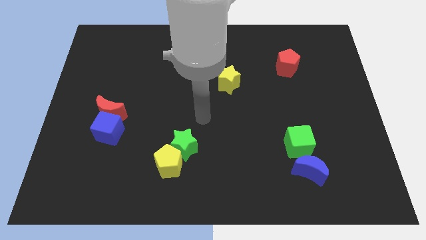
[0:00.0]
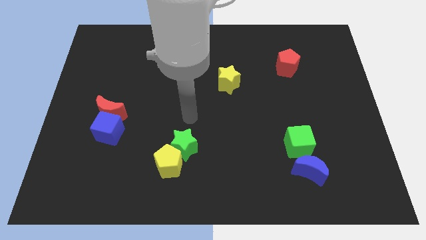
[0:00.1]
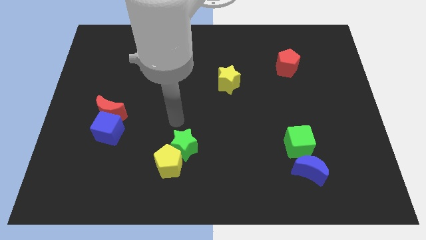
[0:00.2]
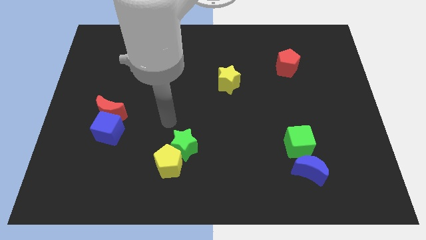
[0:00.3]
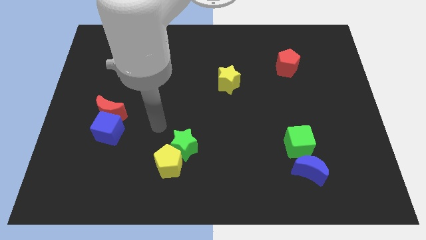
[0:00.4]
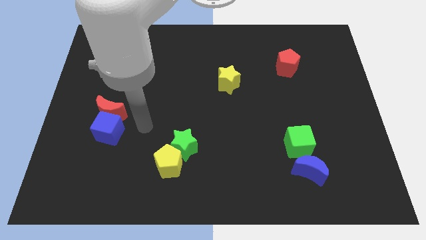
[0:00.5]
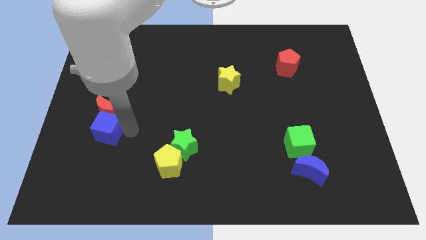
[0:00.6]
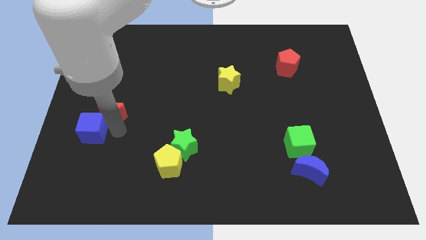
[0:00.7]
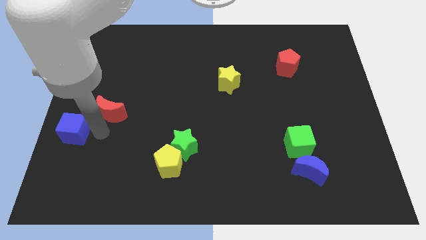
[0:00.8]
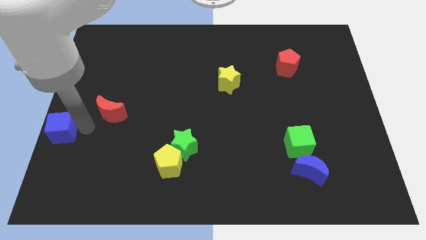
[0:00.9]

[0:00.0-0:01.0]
move the red moon away from the blue cube

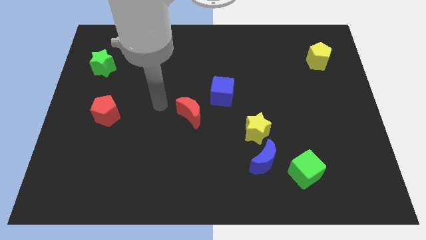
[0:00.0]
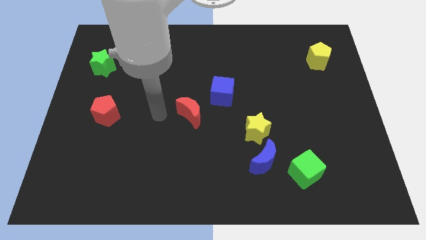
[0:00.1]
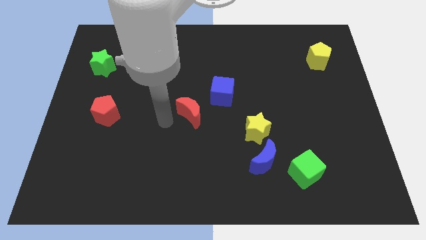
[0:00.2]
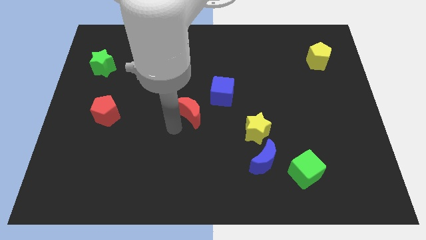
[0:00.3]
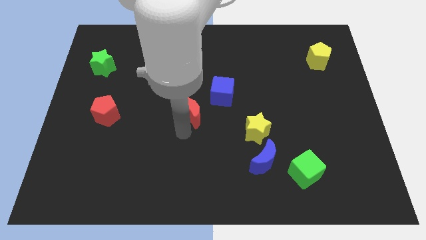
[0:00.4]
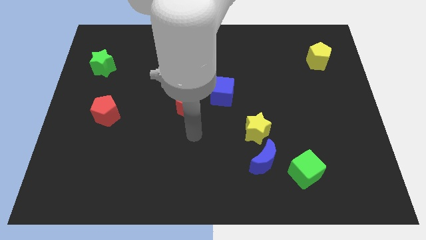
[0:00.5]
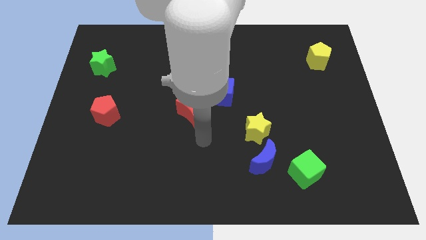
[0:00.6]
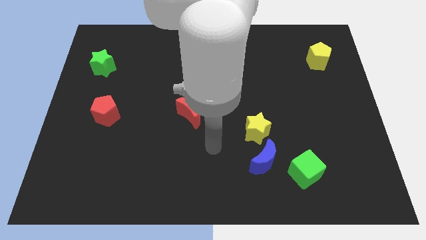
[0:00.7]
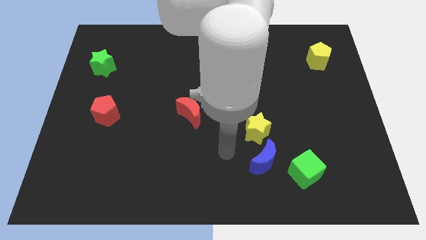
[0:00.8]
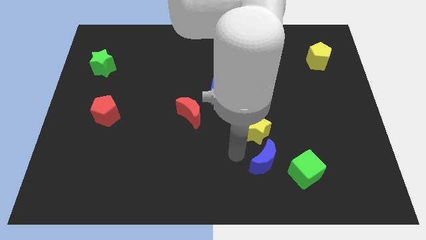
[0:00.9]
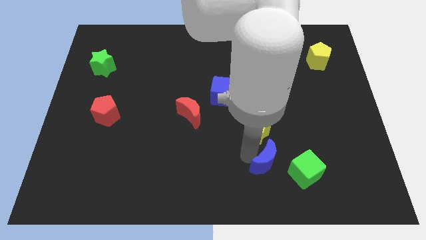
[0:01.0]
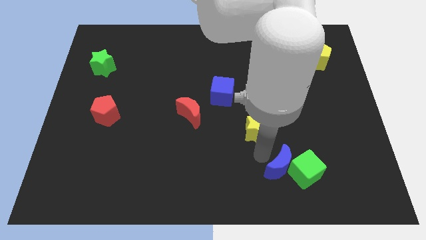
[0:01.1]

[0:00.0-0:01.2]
separate the yellow star from the blue moon

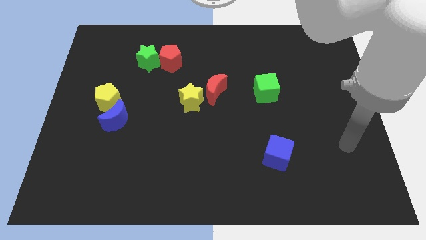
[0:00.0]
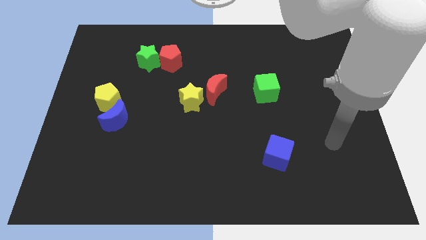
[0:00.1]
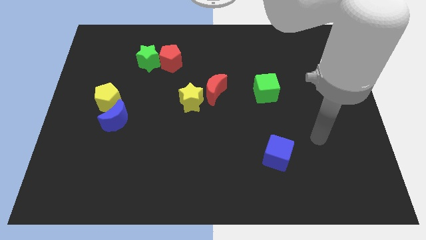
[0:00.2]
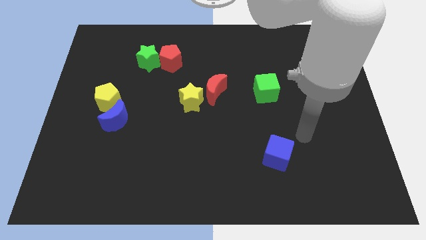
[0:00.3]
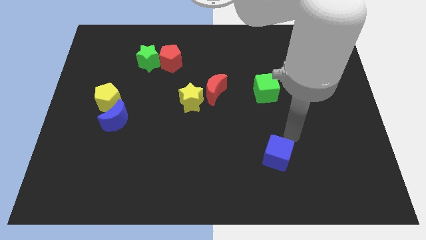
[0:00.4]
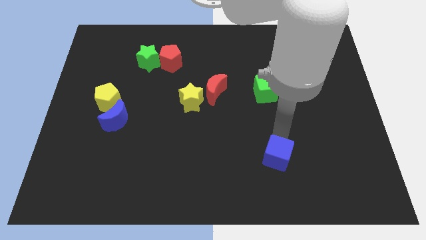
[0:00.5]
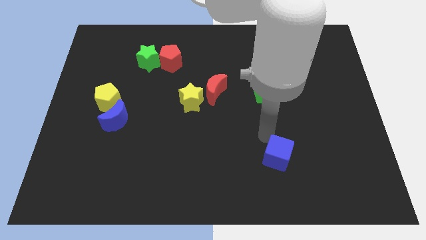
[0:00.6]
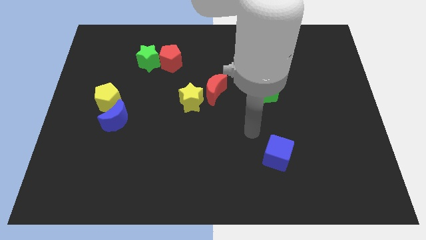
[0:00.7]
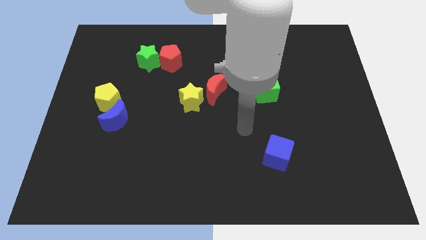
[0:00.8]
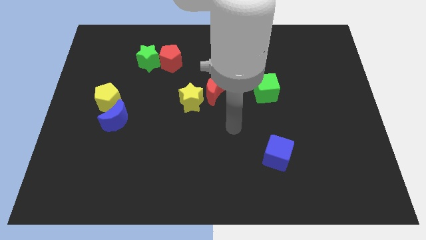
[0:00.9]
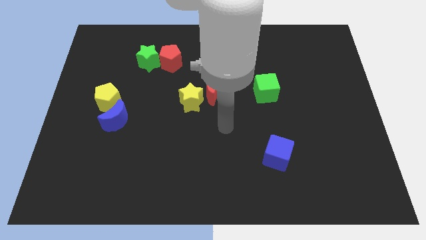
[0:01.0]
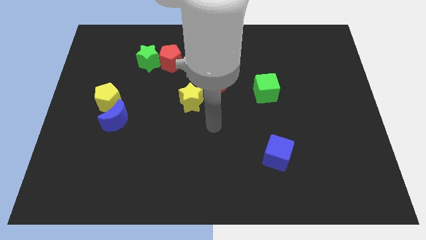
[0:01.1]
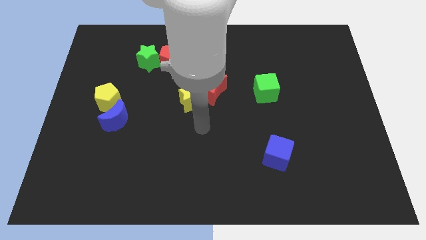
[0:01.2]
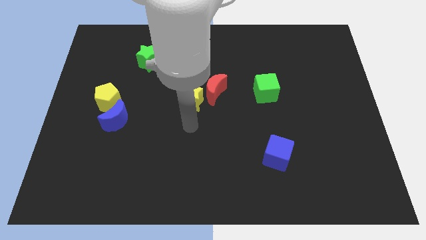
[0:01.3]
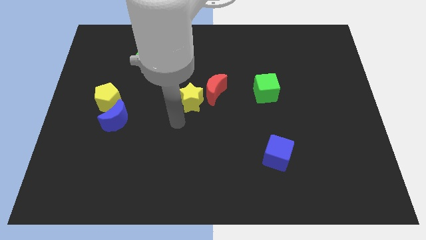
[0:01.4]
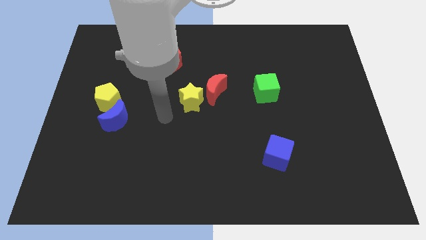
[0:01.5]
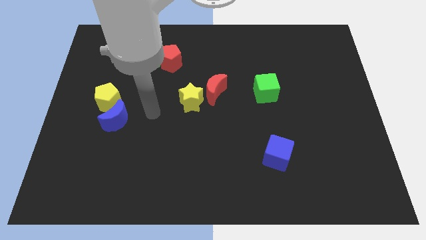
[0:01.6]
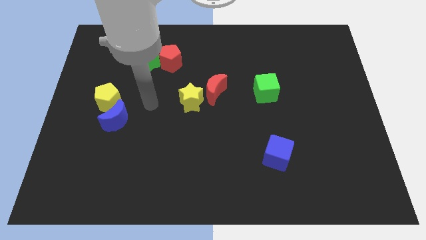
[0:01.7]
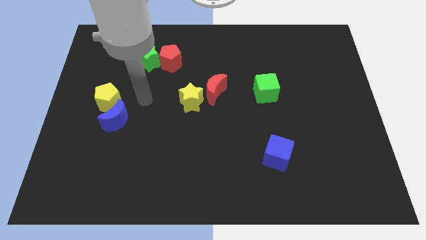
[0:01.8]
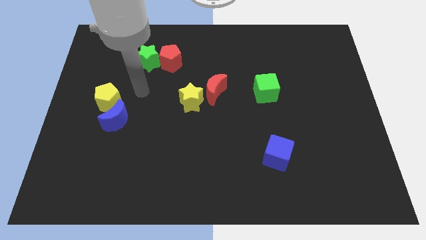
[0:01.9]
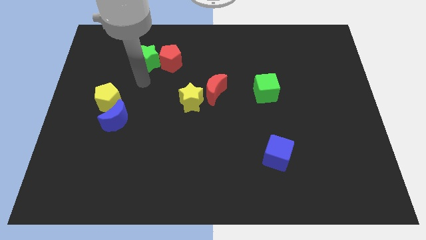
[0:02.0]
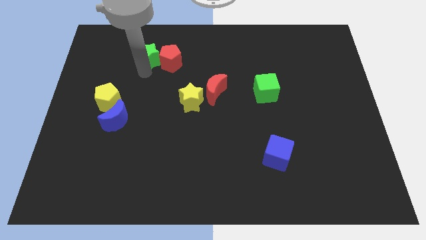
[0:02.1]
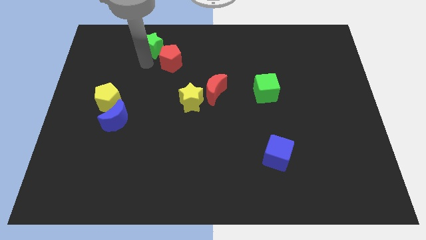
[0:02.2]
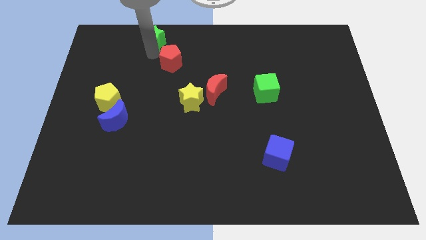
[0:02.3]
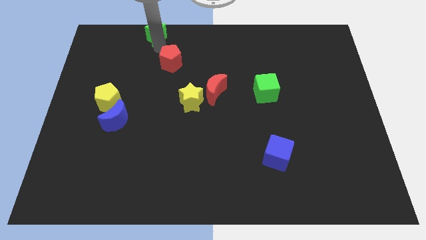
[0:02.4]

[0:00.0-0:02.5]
pull the red pentagon apart from the green star

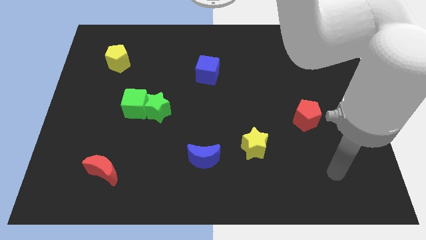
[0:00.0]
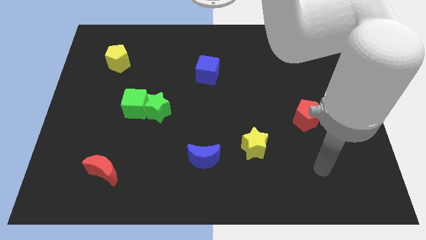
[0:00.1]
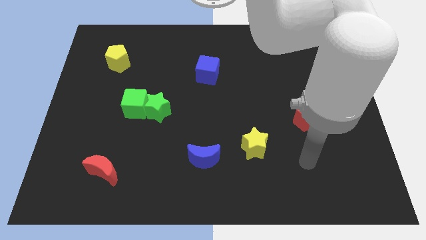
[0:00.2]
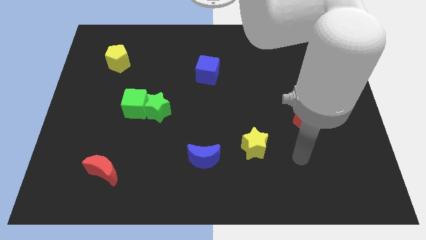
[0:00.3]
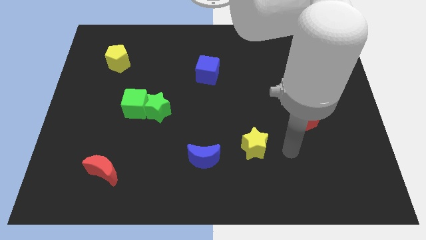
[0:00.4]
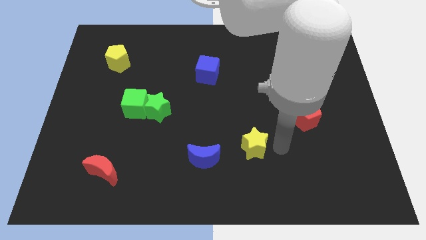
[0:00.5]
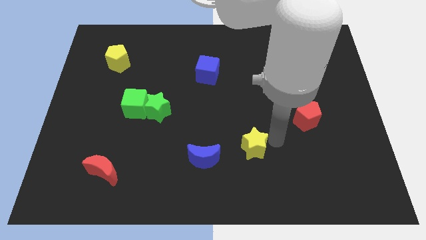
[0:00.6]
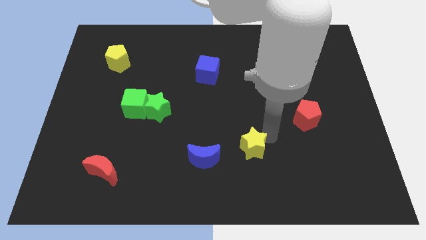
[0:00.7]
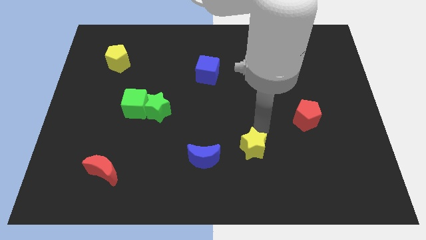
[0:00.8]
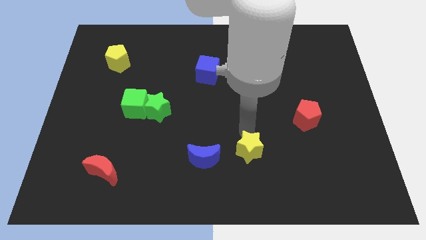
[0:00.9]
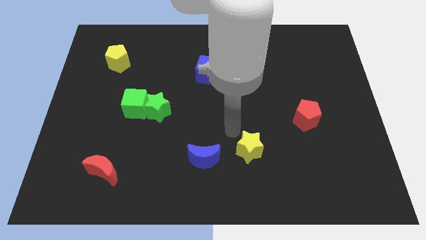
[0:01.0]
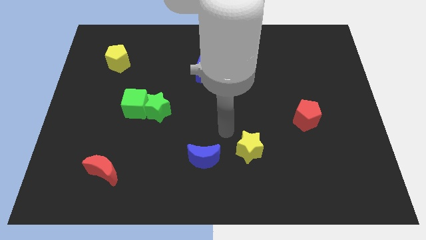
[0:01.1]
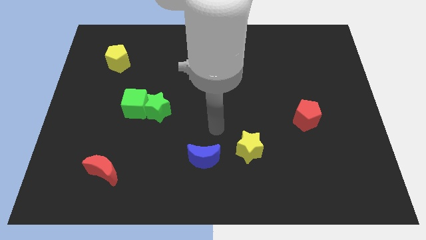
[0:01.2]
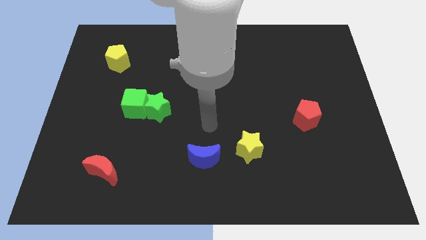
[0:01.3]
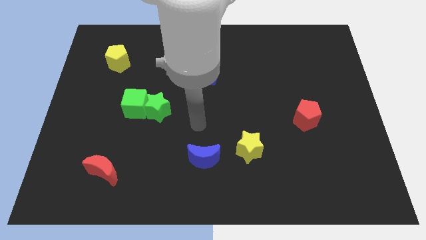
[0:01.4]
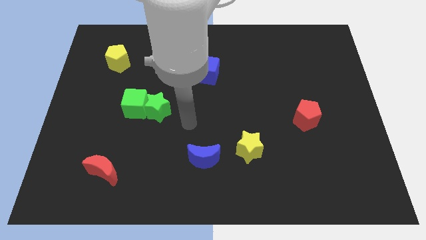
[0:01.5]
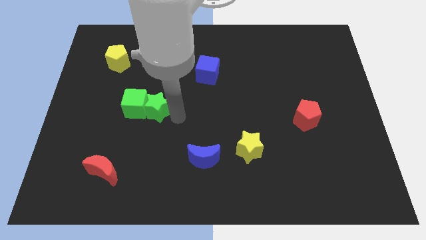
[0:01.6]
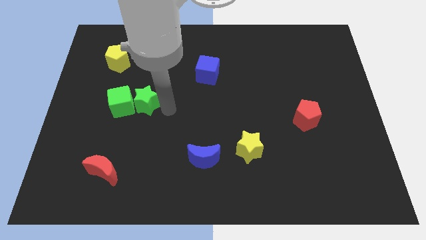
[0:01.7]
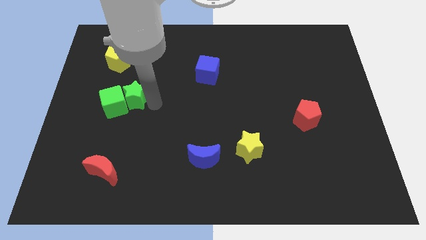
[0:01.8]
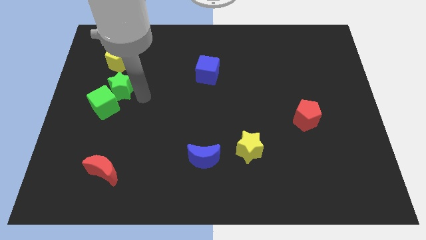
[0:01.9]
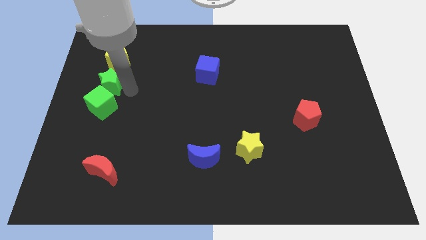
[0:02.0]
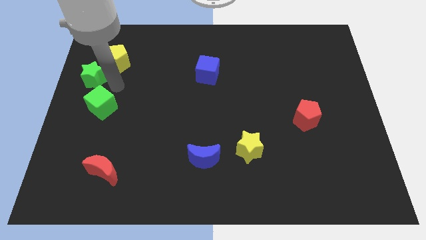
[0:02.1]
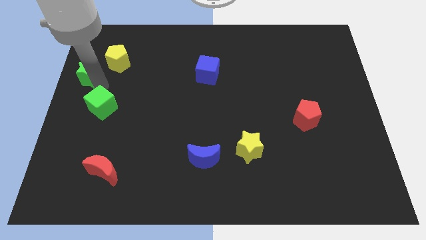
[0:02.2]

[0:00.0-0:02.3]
separate the green cube from the green star

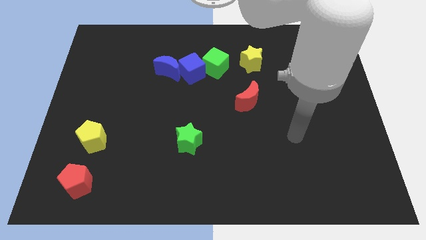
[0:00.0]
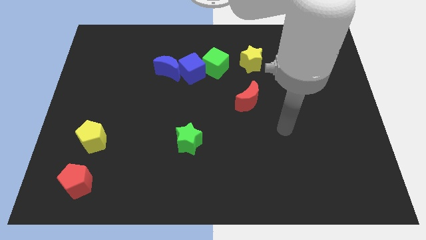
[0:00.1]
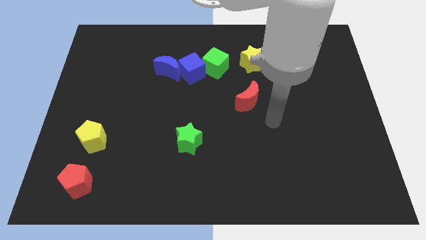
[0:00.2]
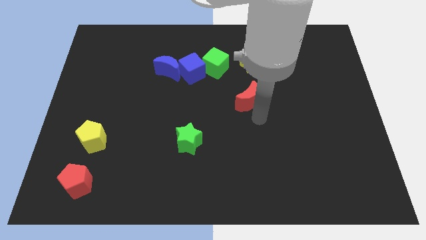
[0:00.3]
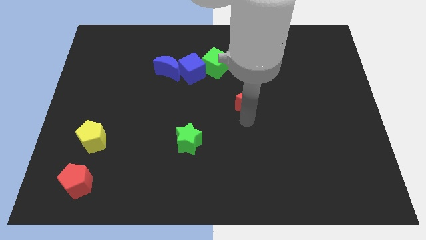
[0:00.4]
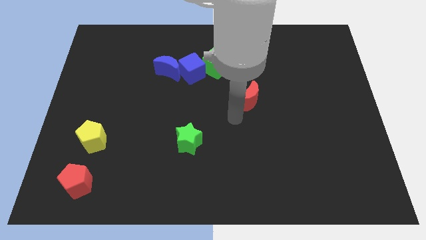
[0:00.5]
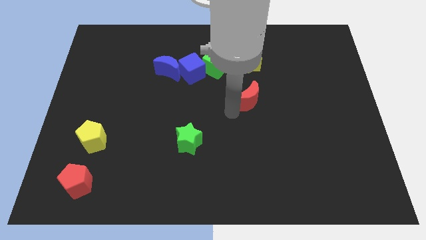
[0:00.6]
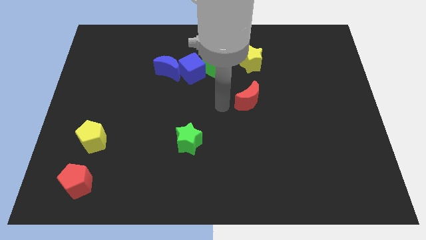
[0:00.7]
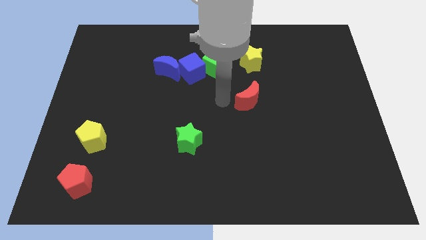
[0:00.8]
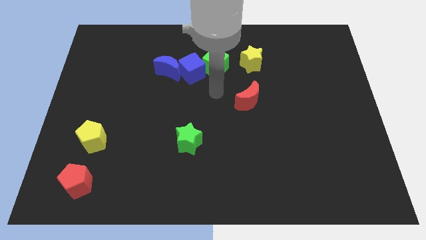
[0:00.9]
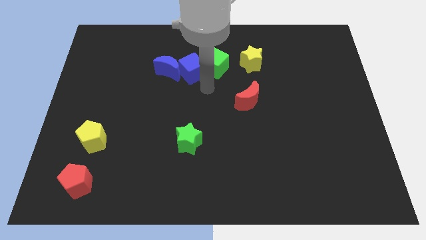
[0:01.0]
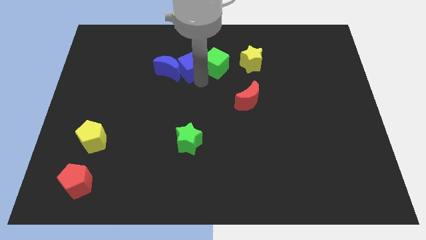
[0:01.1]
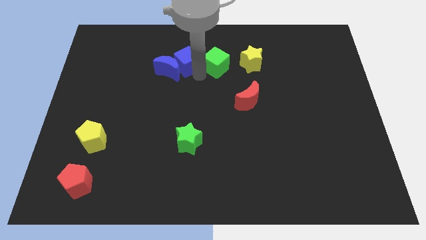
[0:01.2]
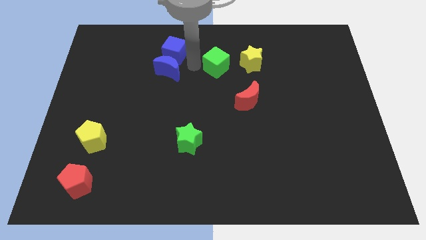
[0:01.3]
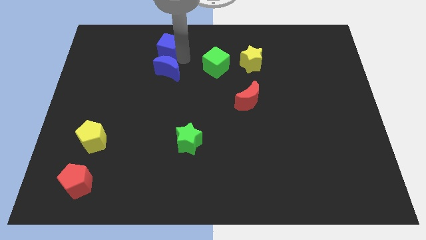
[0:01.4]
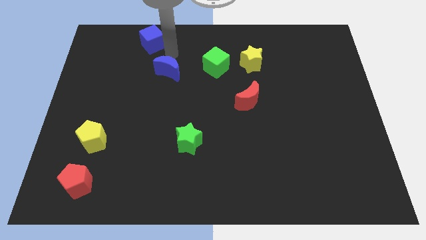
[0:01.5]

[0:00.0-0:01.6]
pull the blue moon apart from the blue cube

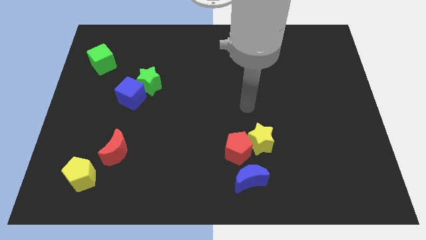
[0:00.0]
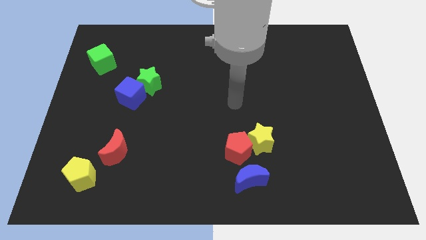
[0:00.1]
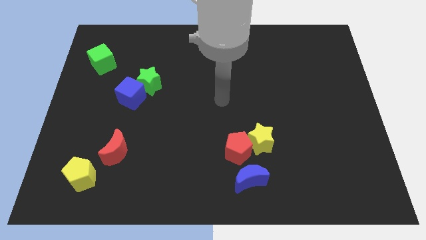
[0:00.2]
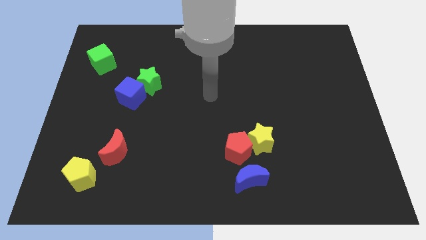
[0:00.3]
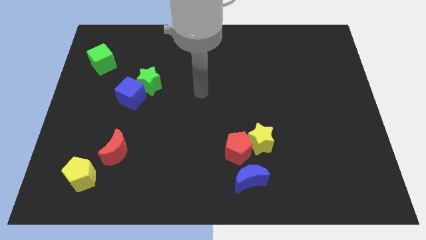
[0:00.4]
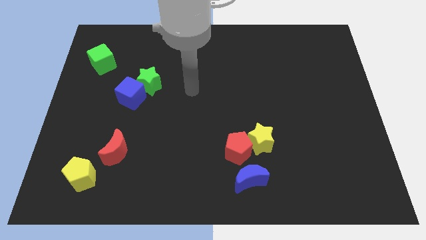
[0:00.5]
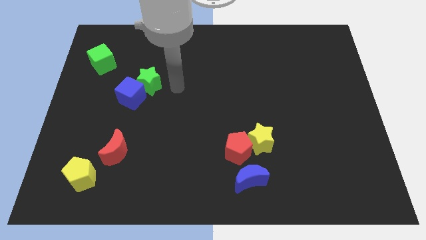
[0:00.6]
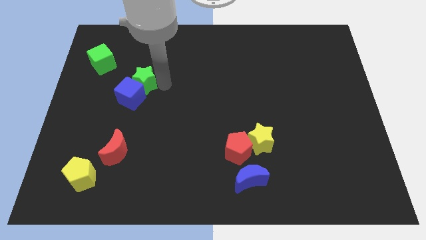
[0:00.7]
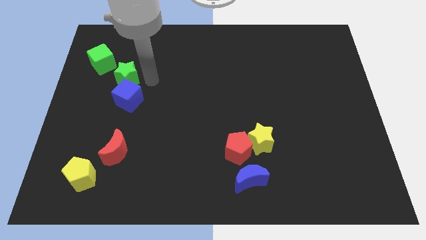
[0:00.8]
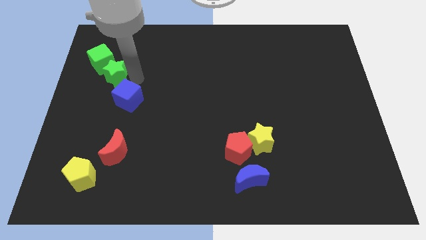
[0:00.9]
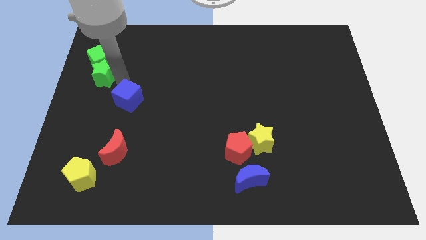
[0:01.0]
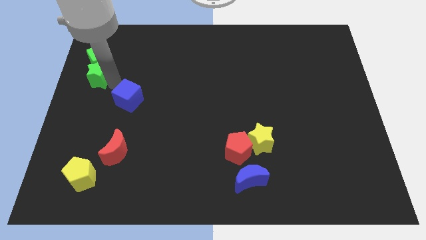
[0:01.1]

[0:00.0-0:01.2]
pull the blue cube apart from the green star
